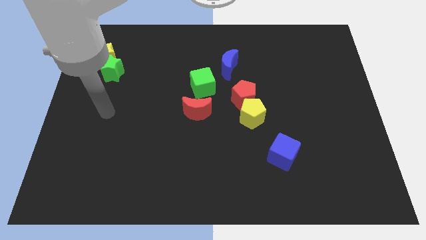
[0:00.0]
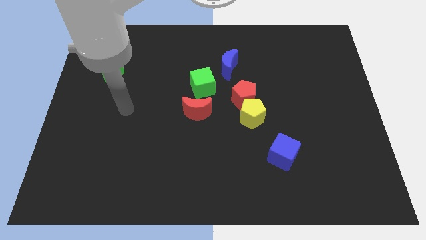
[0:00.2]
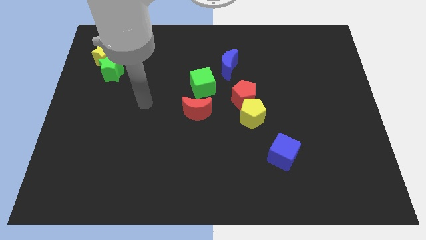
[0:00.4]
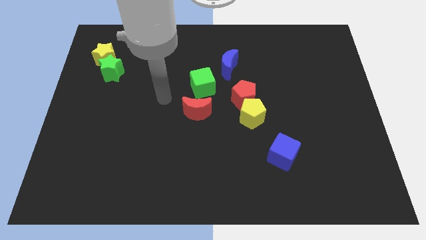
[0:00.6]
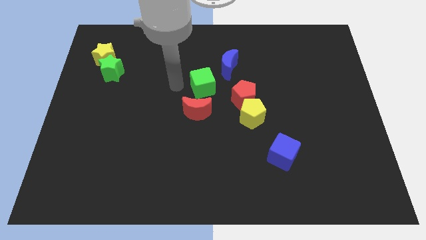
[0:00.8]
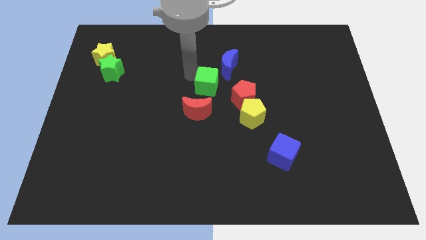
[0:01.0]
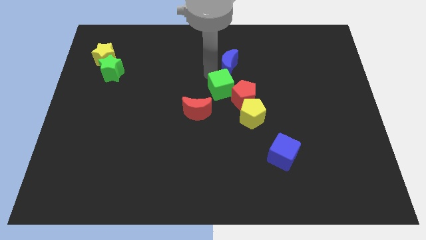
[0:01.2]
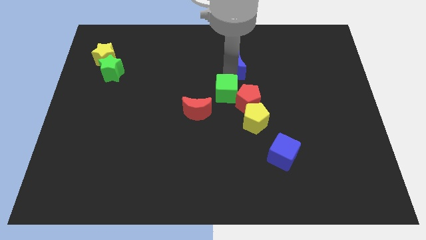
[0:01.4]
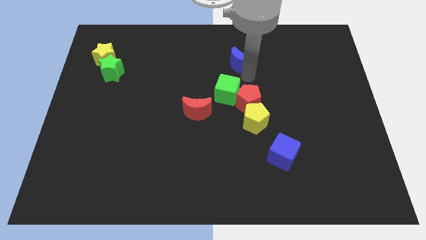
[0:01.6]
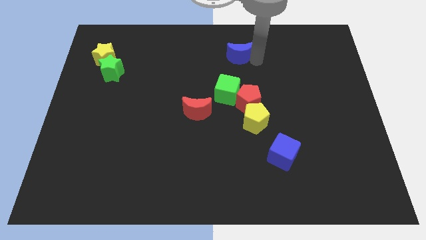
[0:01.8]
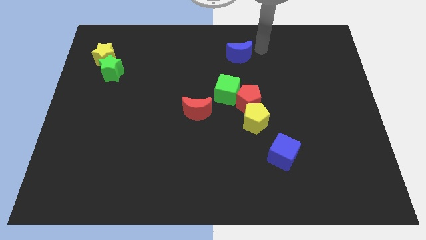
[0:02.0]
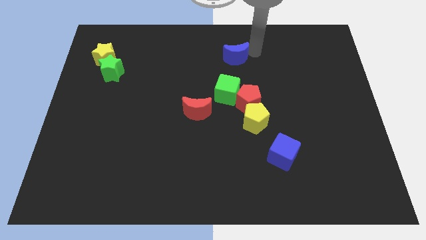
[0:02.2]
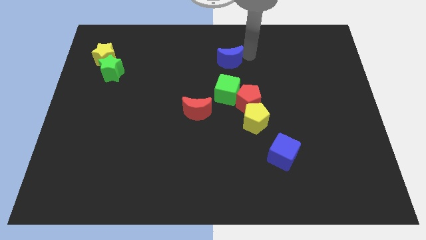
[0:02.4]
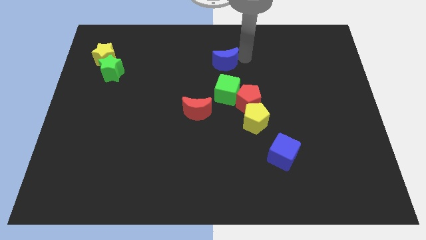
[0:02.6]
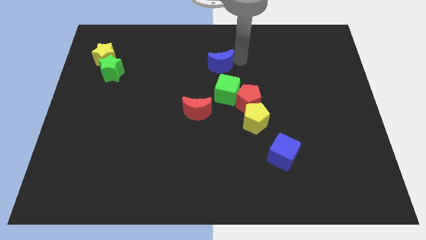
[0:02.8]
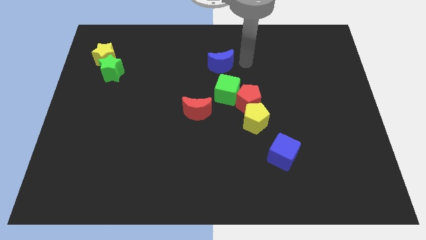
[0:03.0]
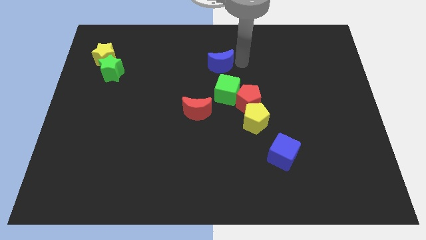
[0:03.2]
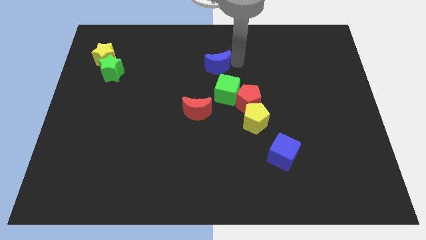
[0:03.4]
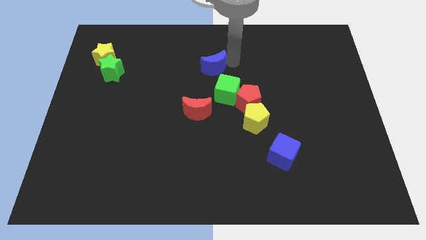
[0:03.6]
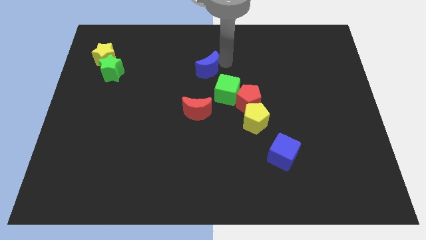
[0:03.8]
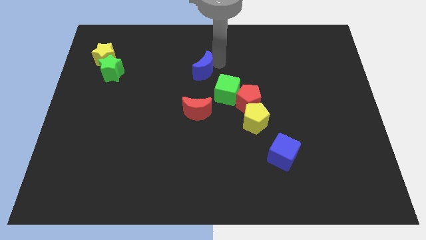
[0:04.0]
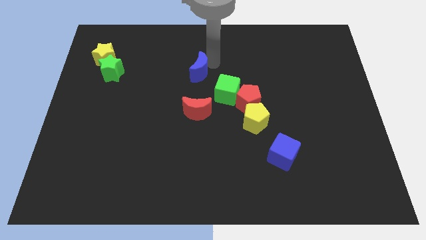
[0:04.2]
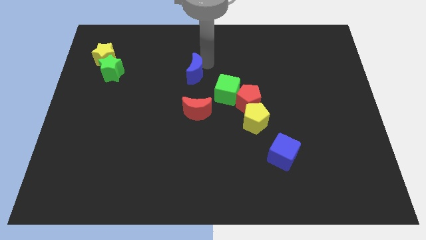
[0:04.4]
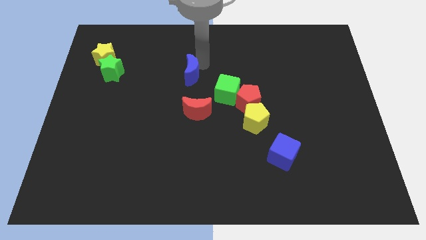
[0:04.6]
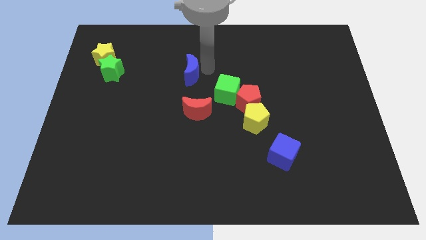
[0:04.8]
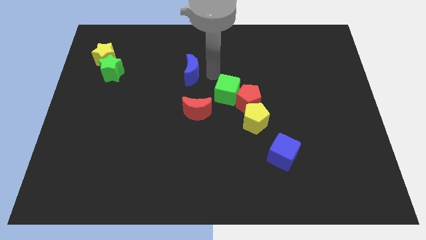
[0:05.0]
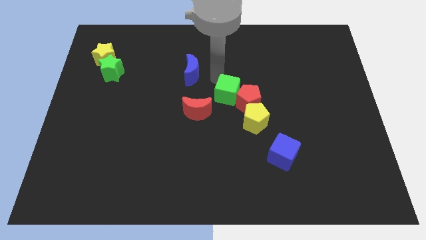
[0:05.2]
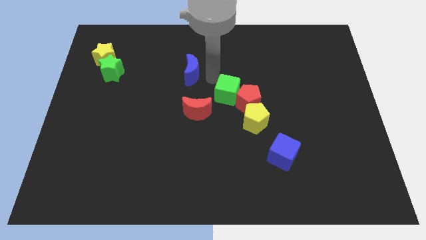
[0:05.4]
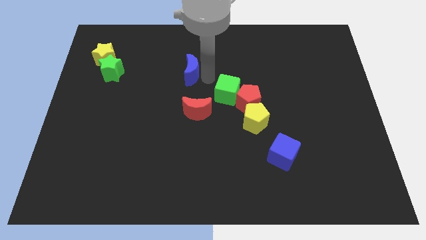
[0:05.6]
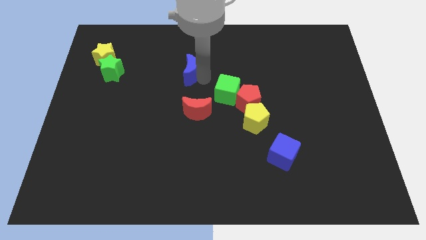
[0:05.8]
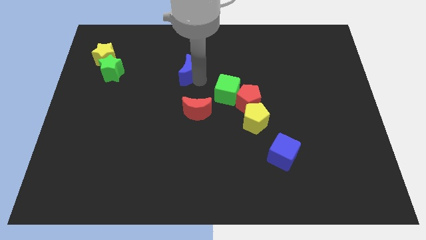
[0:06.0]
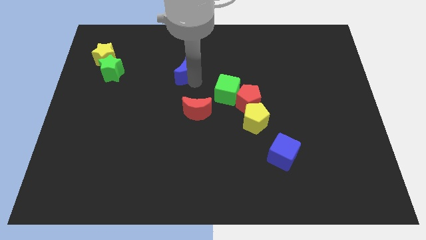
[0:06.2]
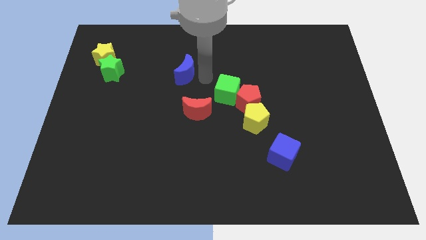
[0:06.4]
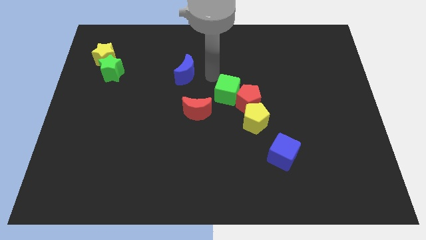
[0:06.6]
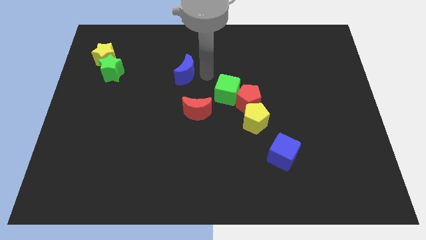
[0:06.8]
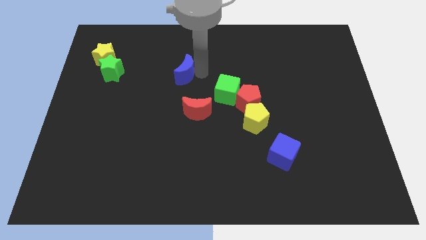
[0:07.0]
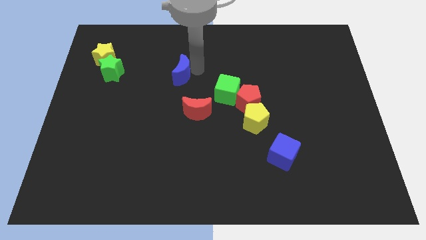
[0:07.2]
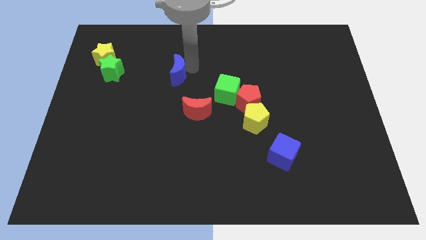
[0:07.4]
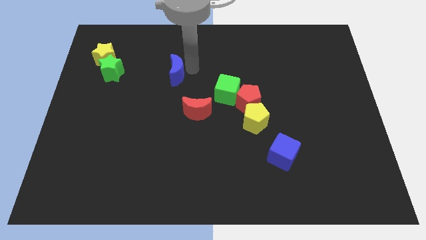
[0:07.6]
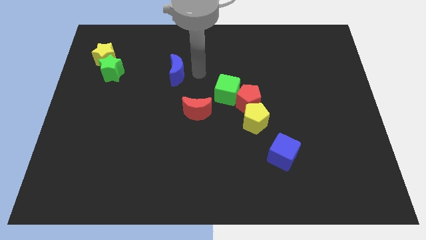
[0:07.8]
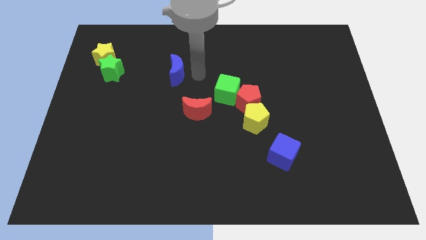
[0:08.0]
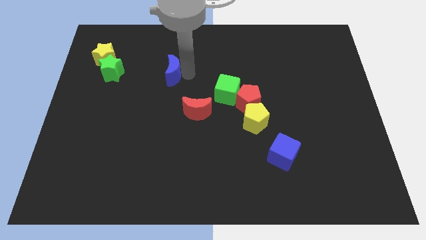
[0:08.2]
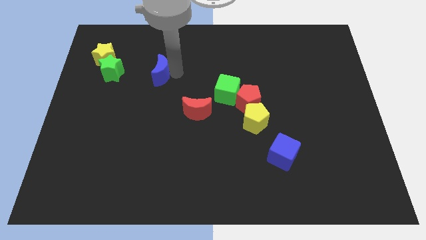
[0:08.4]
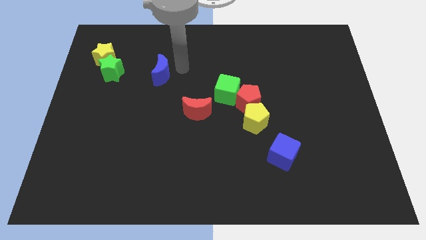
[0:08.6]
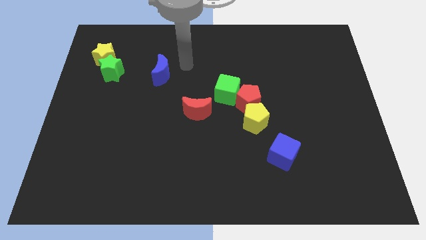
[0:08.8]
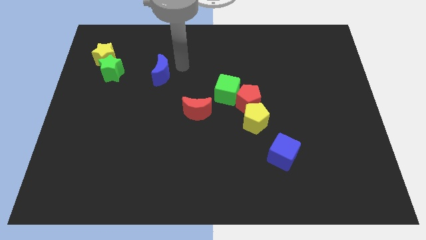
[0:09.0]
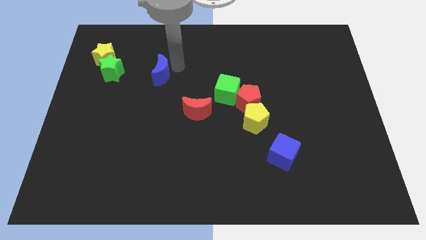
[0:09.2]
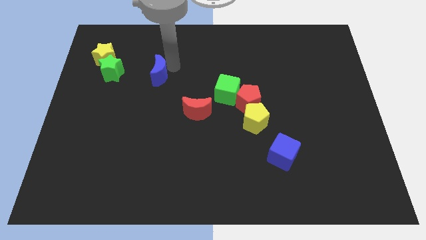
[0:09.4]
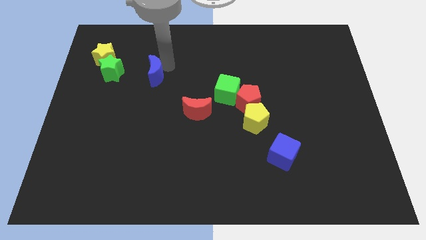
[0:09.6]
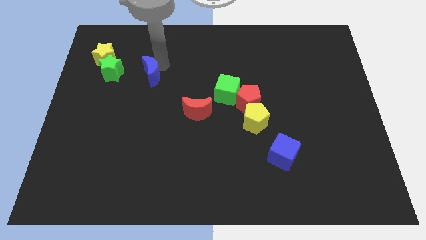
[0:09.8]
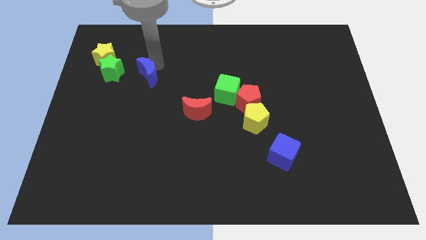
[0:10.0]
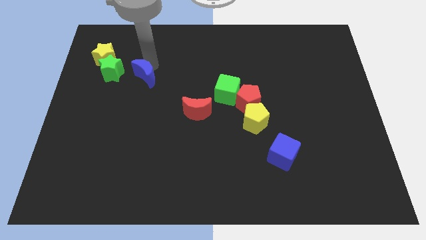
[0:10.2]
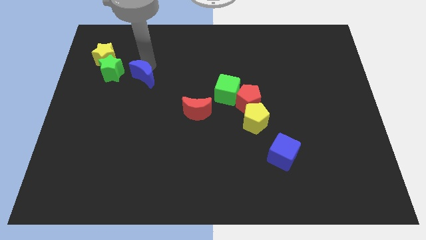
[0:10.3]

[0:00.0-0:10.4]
push the blue moon to the bottom right side of the green star

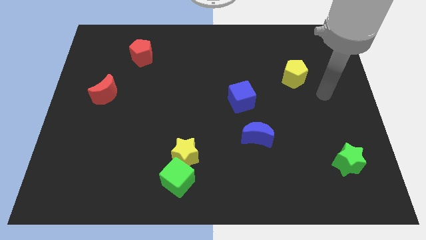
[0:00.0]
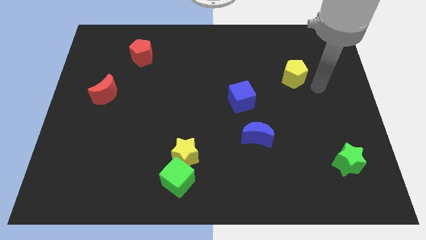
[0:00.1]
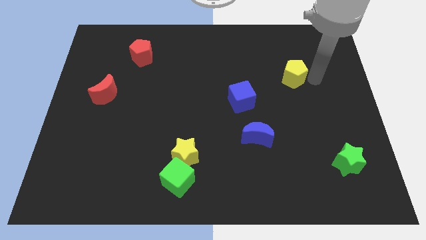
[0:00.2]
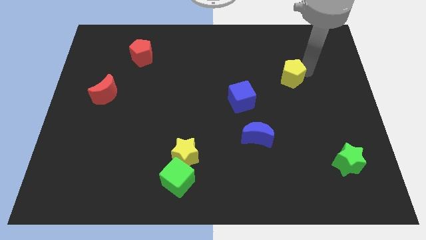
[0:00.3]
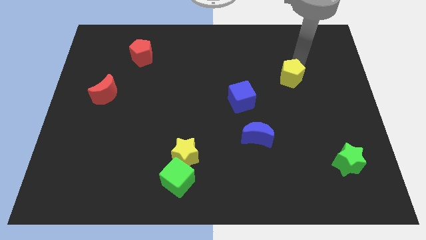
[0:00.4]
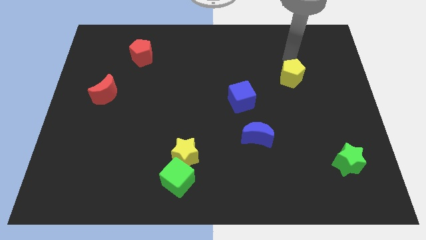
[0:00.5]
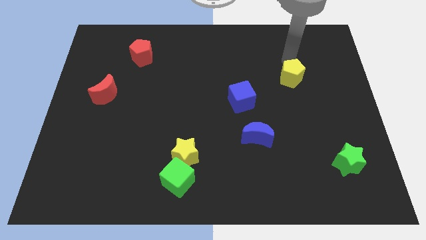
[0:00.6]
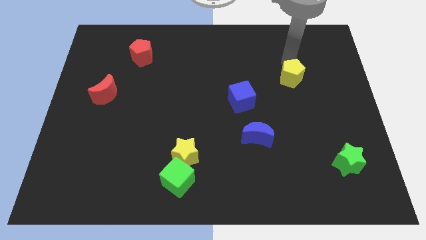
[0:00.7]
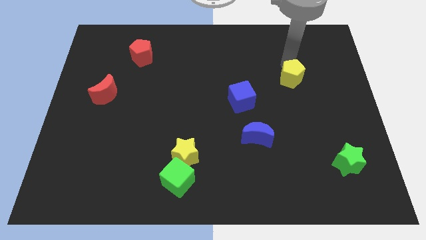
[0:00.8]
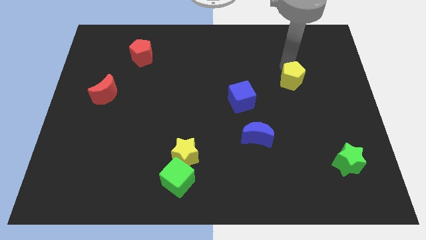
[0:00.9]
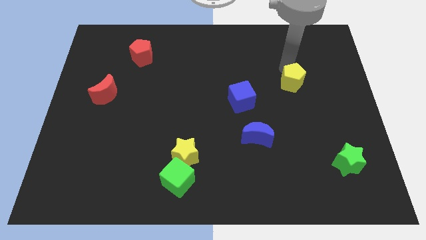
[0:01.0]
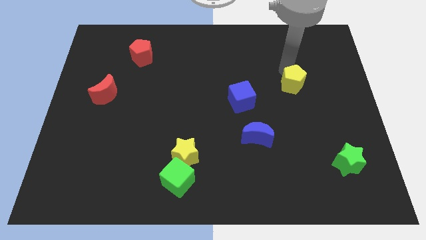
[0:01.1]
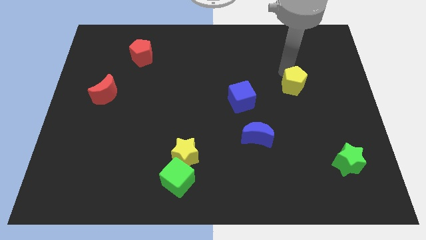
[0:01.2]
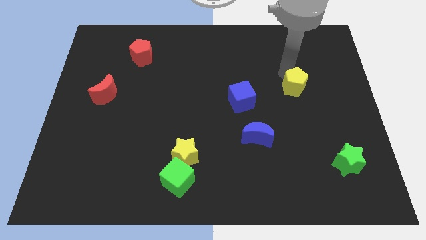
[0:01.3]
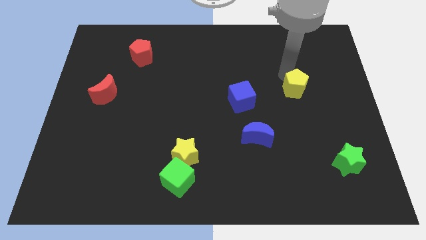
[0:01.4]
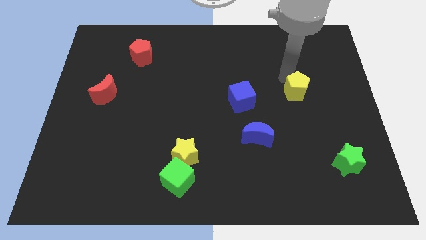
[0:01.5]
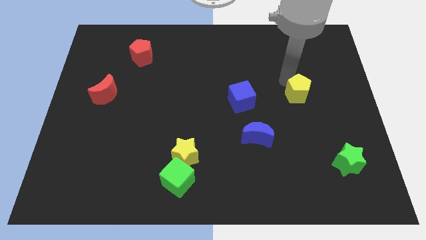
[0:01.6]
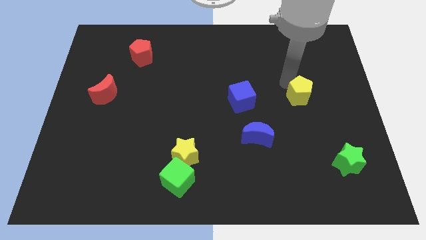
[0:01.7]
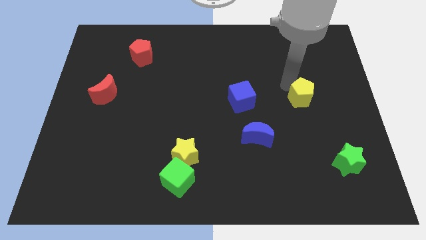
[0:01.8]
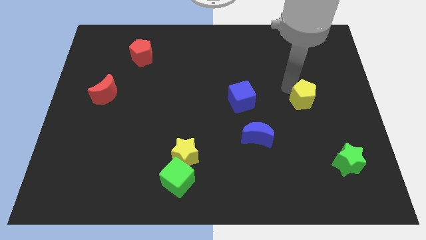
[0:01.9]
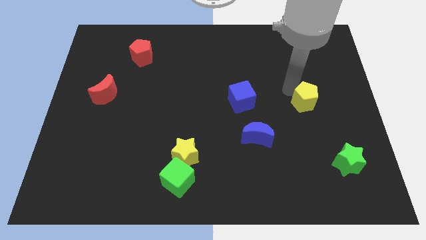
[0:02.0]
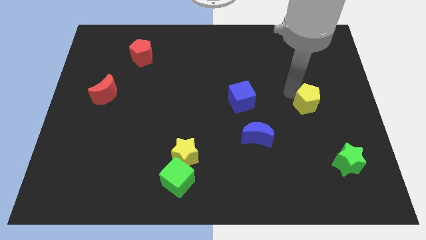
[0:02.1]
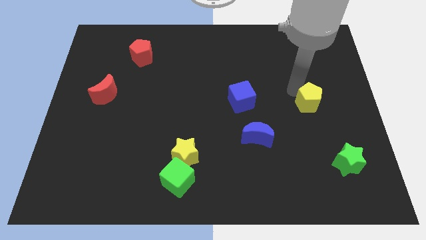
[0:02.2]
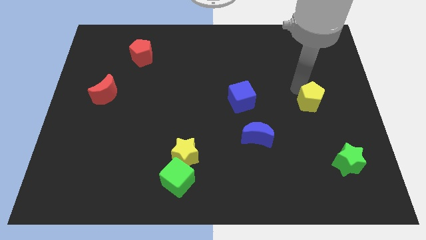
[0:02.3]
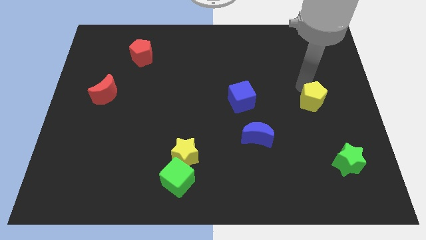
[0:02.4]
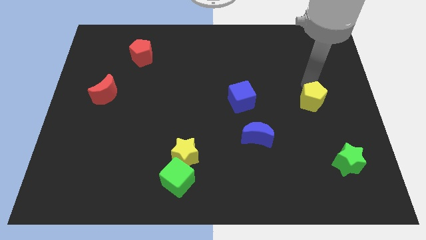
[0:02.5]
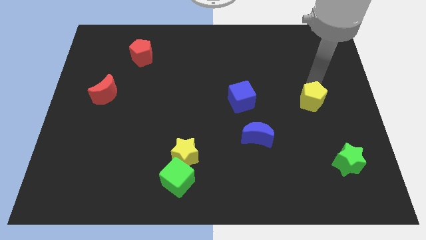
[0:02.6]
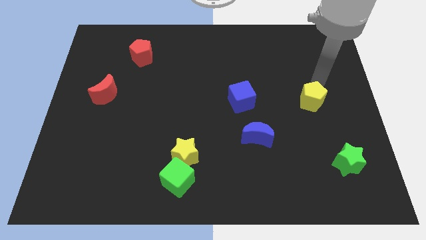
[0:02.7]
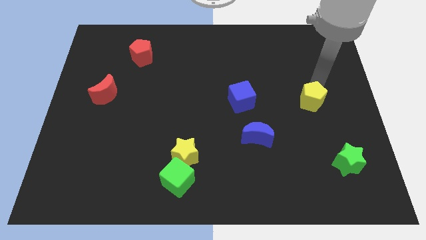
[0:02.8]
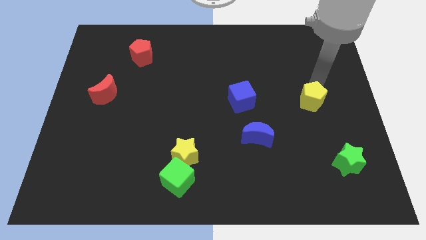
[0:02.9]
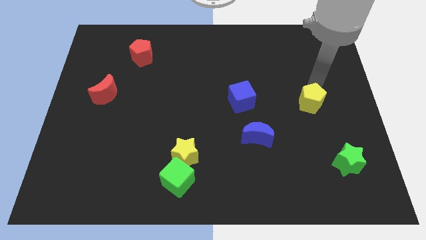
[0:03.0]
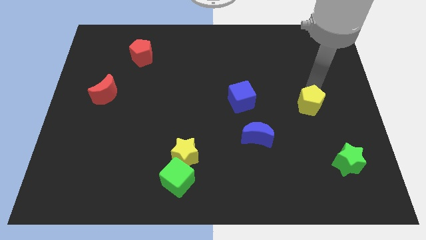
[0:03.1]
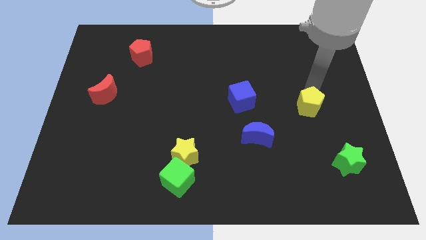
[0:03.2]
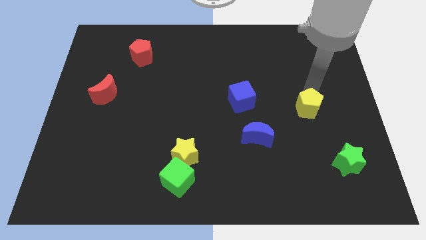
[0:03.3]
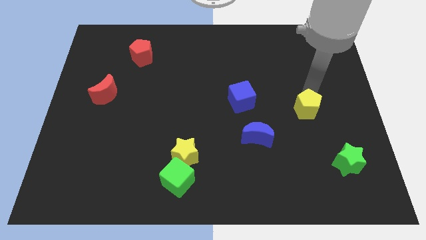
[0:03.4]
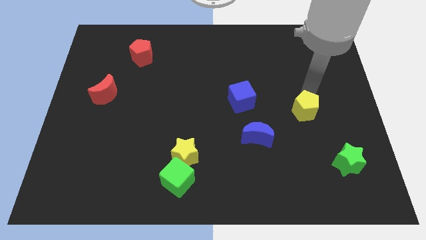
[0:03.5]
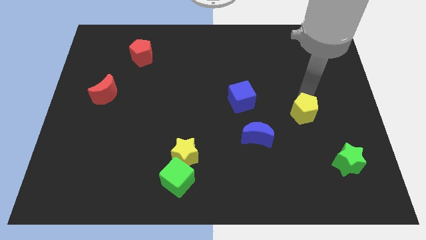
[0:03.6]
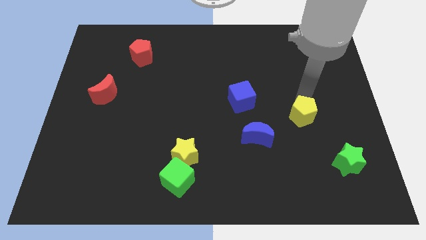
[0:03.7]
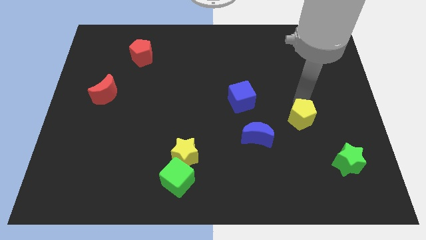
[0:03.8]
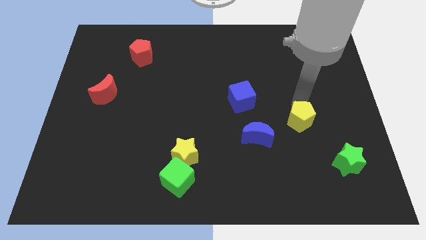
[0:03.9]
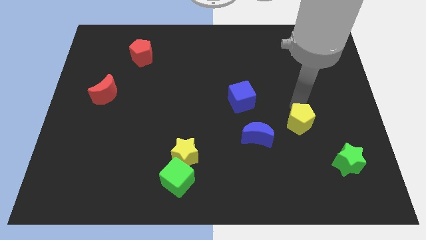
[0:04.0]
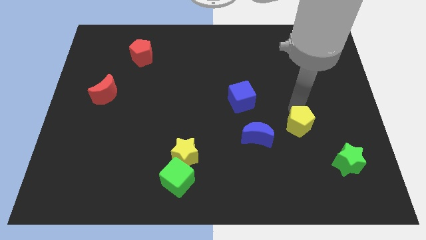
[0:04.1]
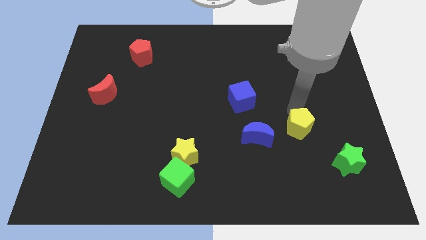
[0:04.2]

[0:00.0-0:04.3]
push the yellow pentagon to the top left of the green star
